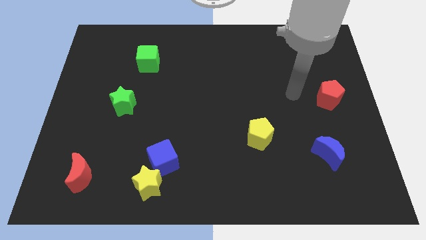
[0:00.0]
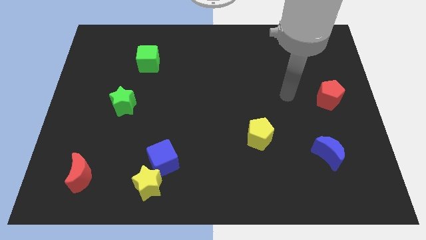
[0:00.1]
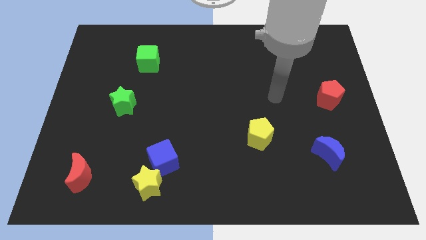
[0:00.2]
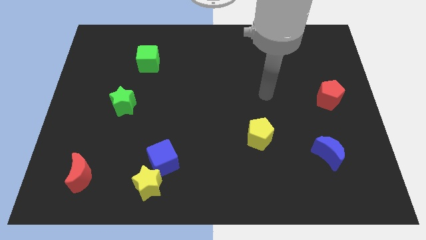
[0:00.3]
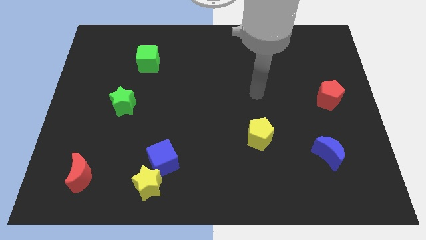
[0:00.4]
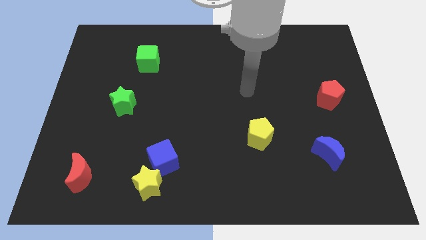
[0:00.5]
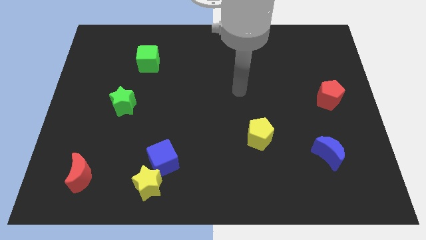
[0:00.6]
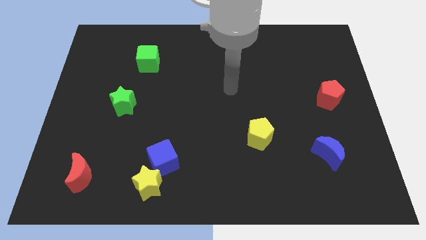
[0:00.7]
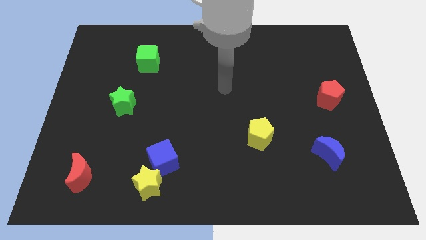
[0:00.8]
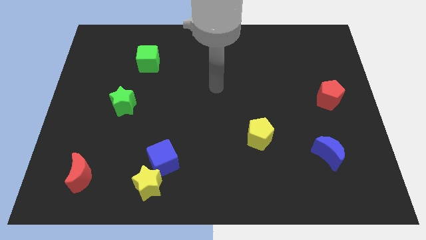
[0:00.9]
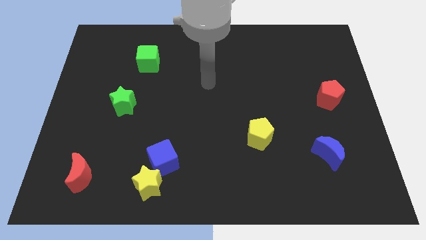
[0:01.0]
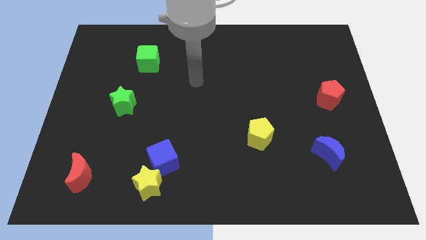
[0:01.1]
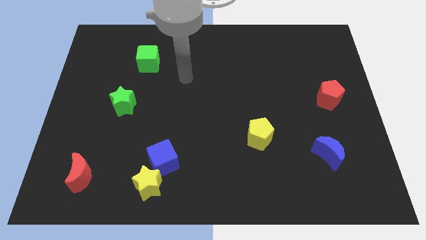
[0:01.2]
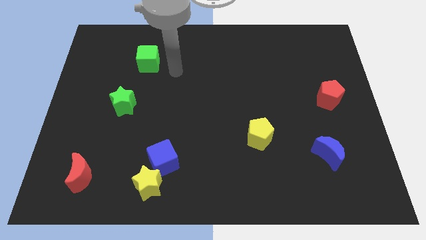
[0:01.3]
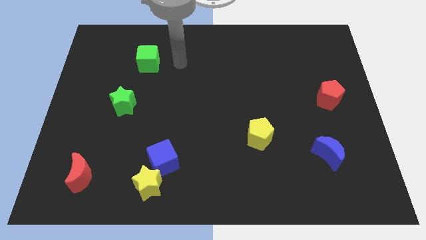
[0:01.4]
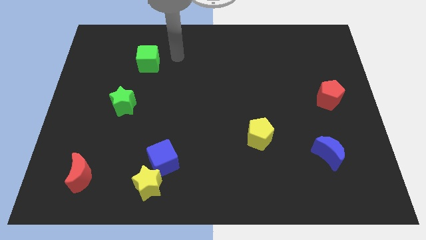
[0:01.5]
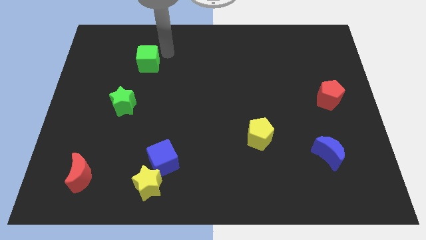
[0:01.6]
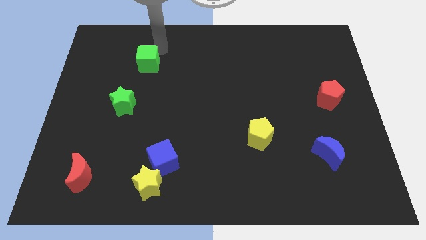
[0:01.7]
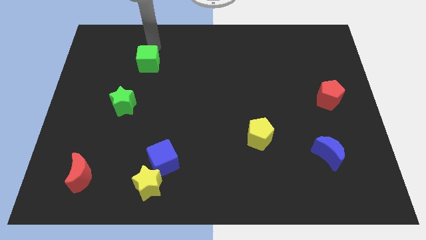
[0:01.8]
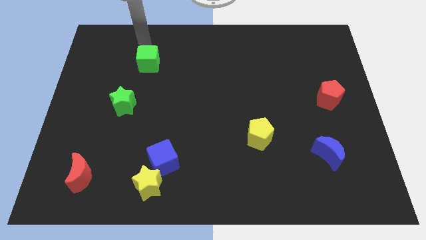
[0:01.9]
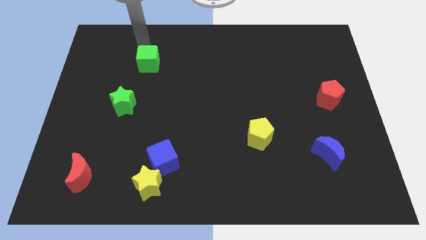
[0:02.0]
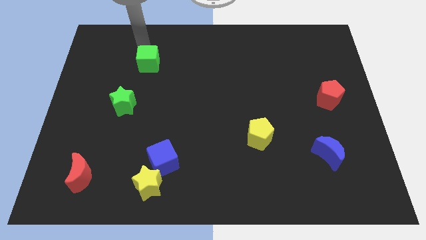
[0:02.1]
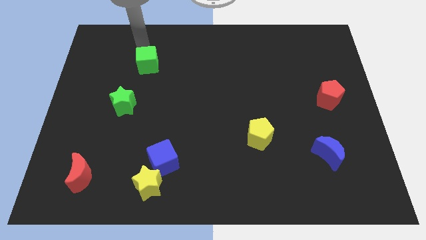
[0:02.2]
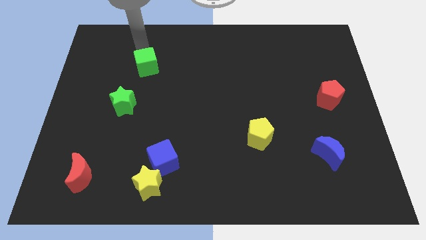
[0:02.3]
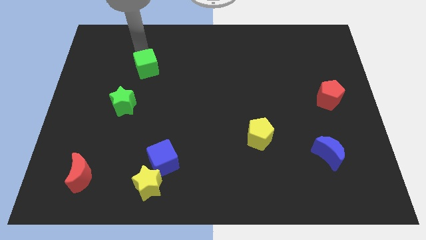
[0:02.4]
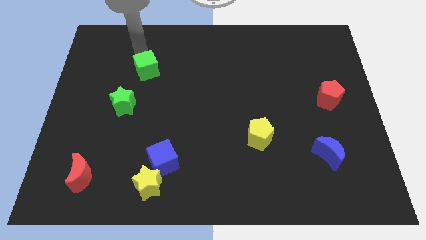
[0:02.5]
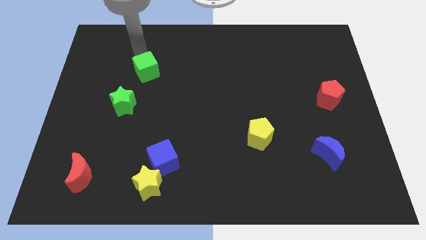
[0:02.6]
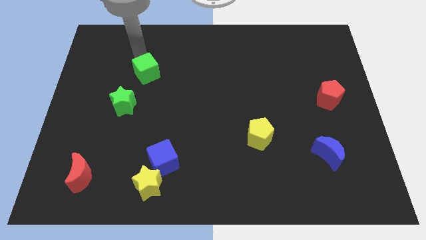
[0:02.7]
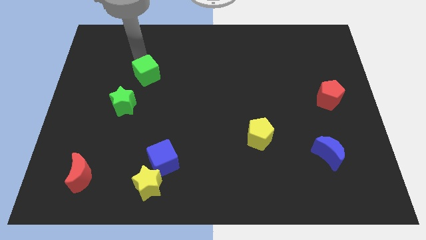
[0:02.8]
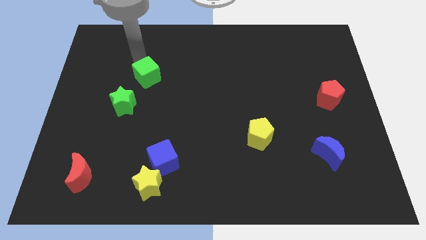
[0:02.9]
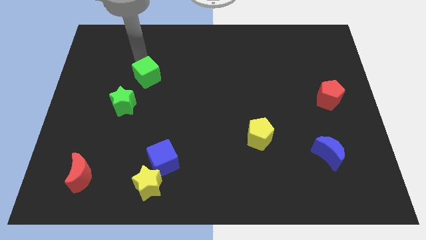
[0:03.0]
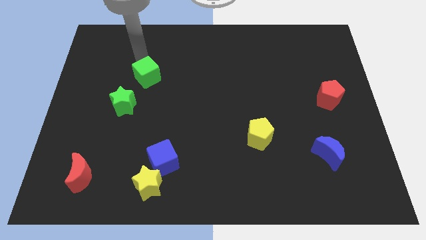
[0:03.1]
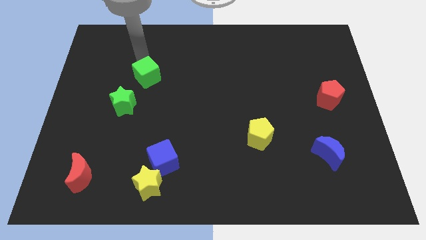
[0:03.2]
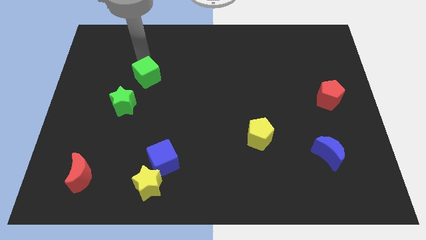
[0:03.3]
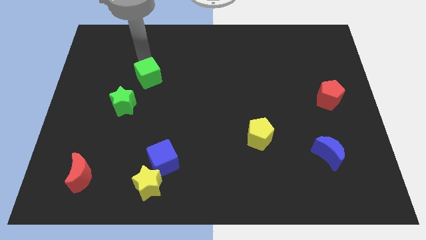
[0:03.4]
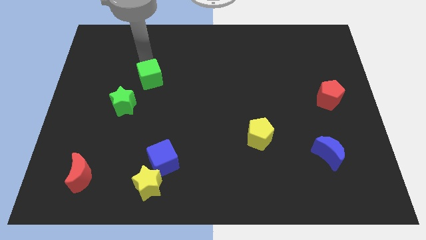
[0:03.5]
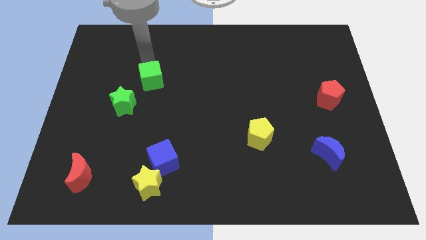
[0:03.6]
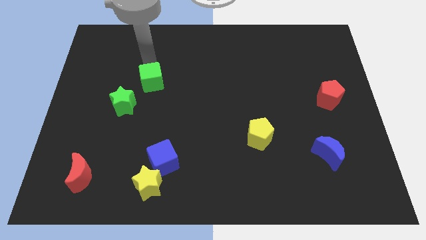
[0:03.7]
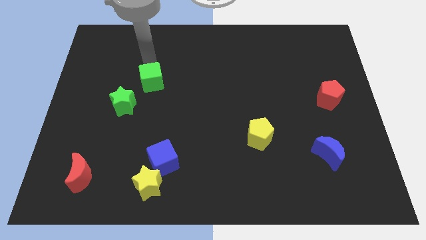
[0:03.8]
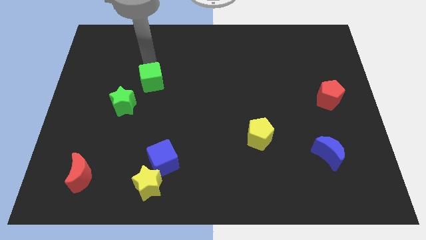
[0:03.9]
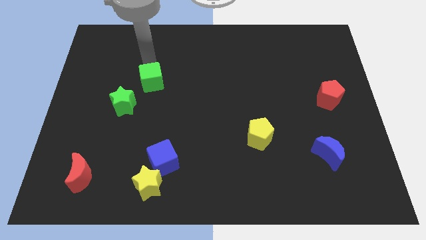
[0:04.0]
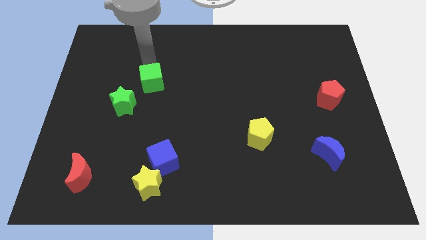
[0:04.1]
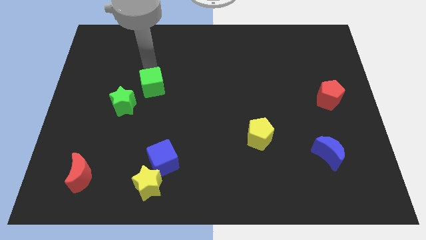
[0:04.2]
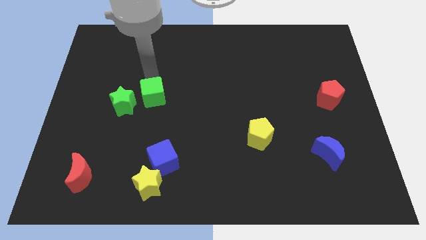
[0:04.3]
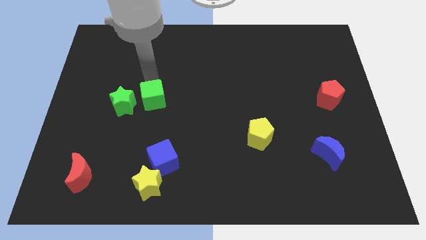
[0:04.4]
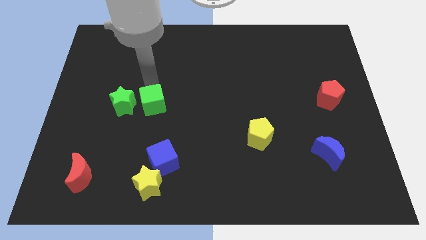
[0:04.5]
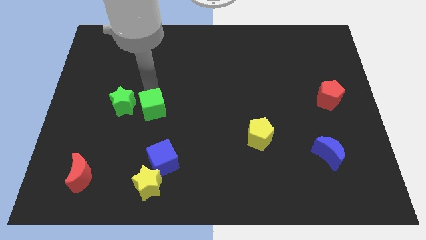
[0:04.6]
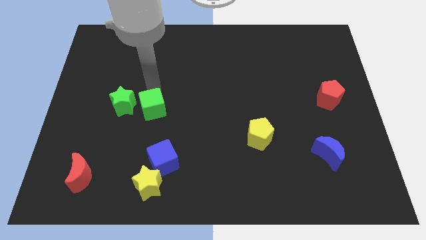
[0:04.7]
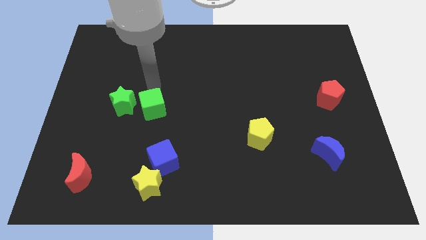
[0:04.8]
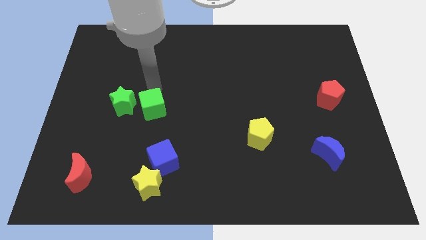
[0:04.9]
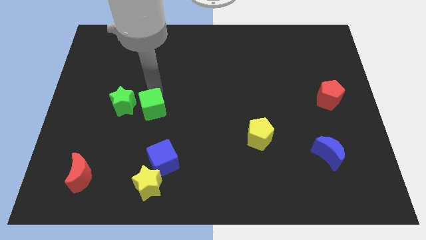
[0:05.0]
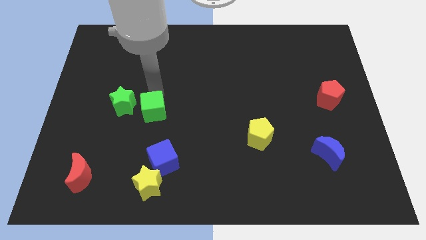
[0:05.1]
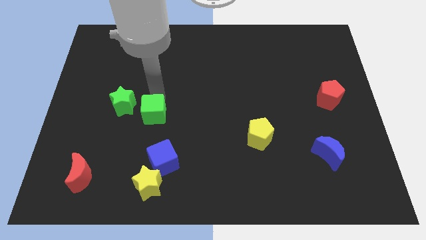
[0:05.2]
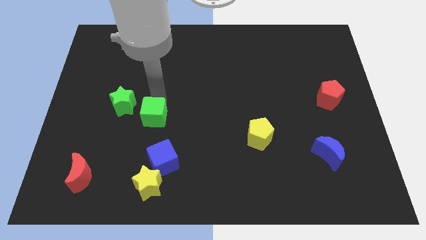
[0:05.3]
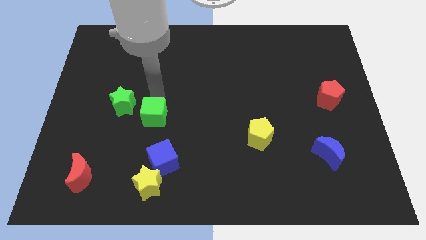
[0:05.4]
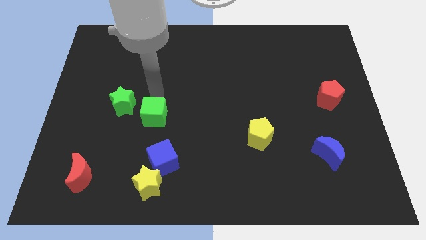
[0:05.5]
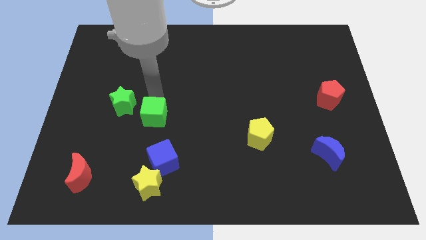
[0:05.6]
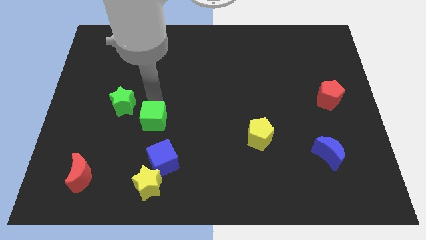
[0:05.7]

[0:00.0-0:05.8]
slide the green cube to the top of the yellow star

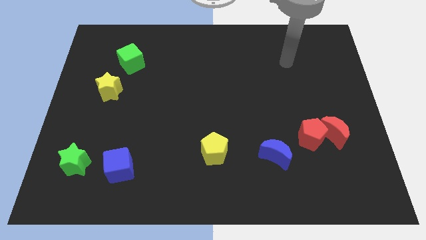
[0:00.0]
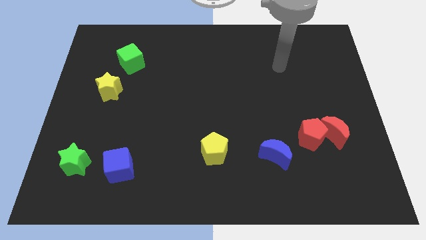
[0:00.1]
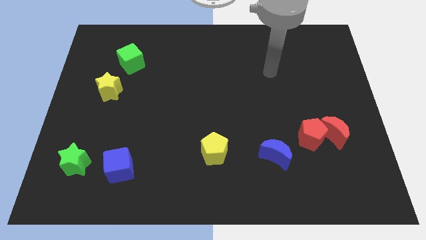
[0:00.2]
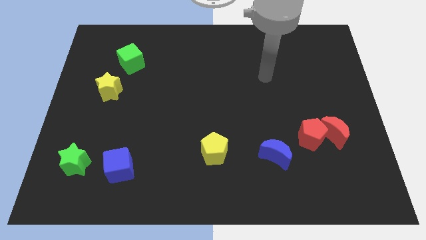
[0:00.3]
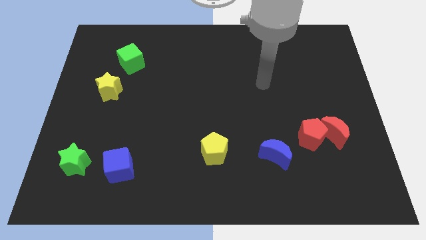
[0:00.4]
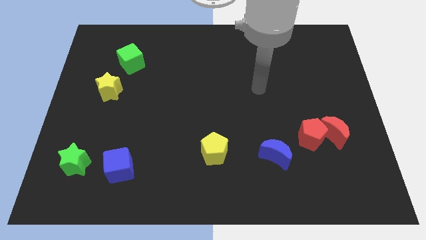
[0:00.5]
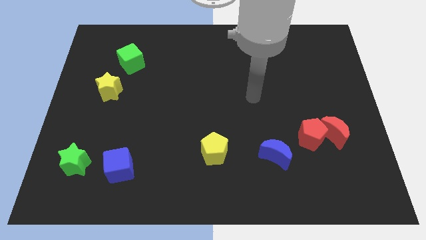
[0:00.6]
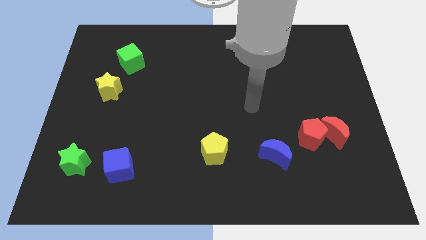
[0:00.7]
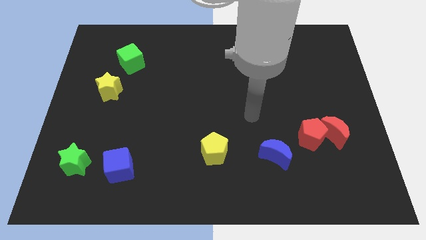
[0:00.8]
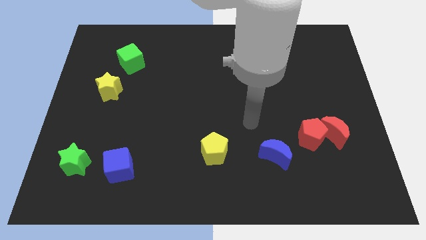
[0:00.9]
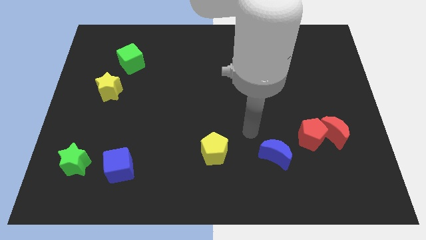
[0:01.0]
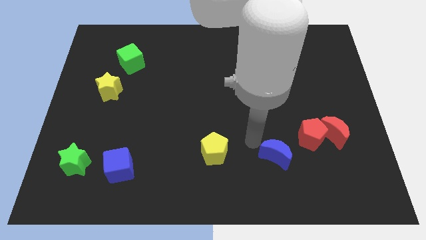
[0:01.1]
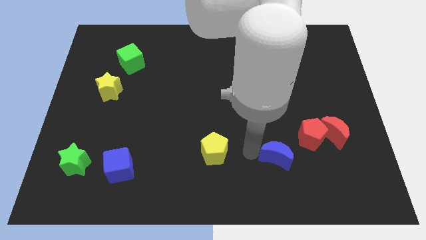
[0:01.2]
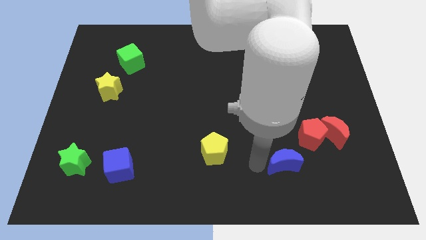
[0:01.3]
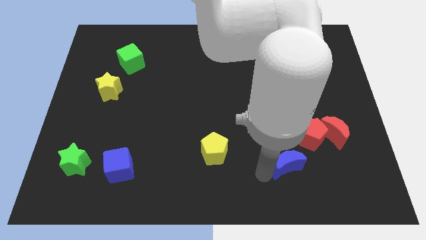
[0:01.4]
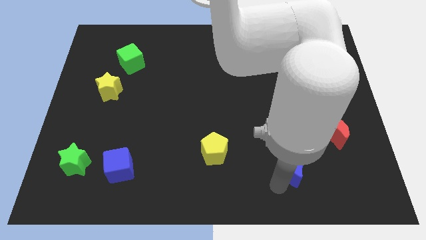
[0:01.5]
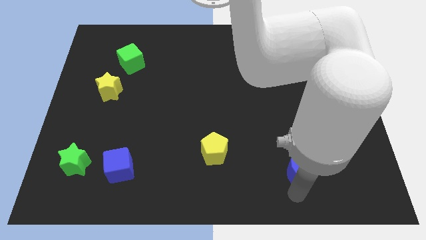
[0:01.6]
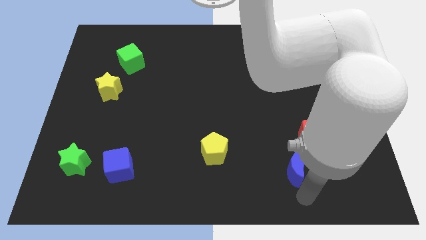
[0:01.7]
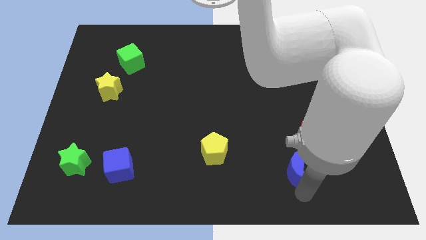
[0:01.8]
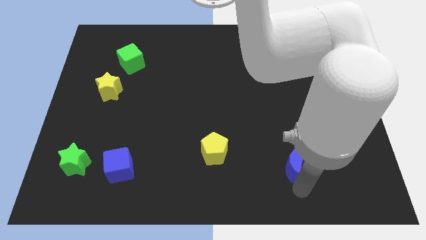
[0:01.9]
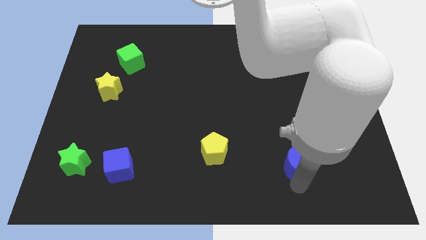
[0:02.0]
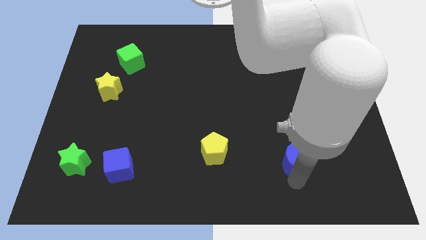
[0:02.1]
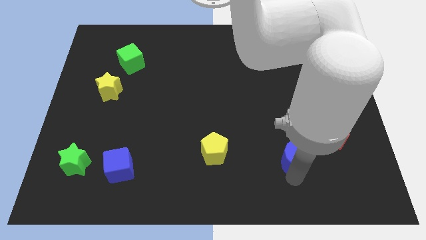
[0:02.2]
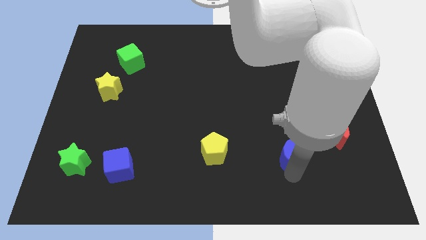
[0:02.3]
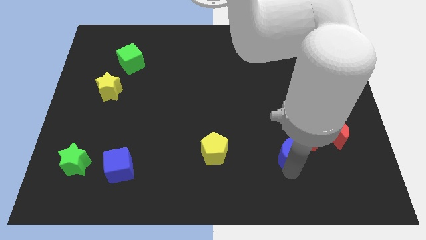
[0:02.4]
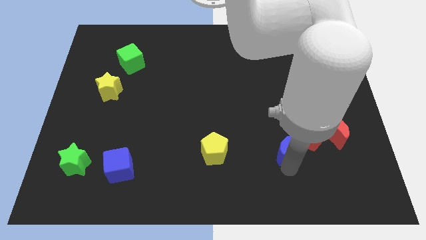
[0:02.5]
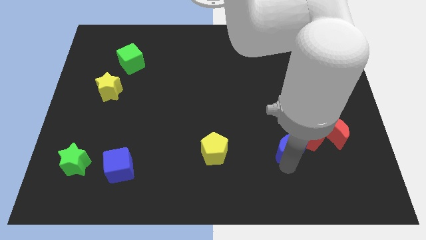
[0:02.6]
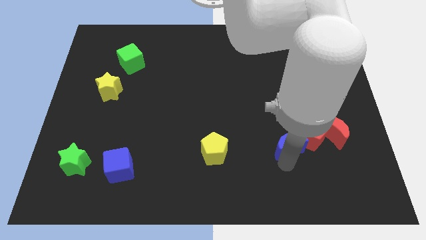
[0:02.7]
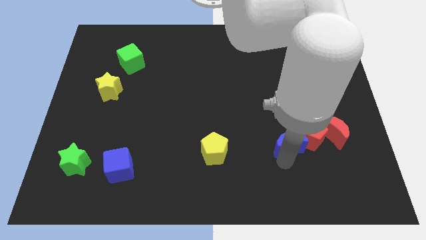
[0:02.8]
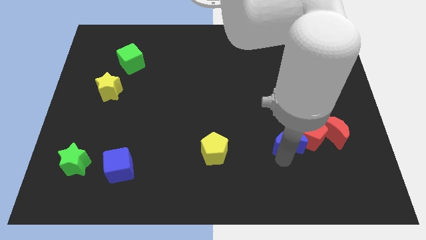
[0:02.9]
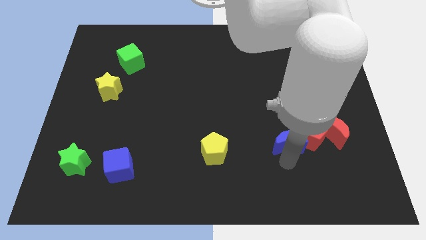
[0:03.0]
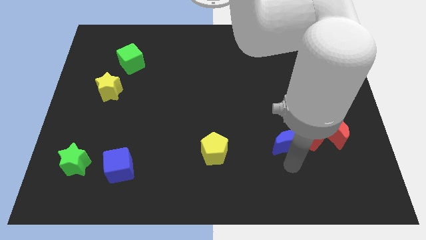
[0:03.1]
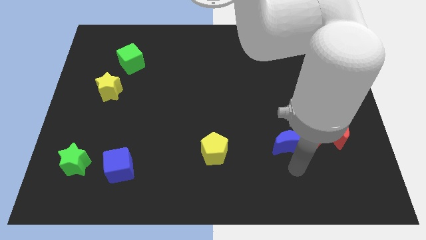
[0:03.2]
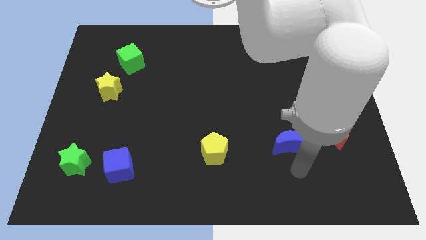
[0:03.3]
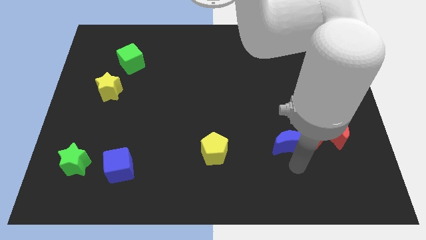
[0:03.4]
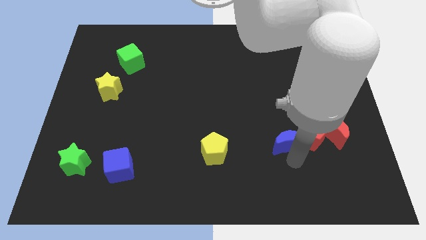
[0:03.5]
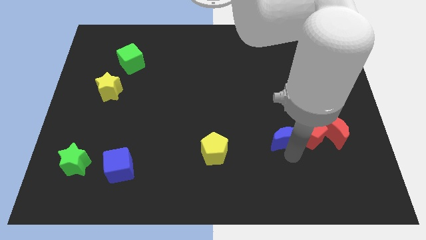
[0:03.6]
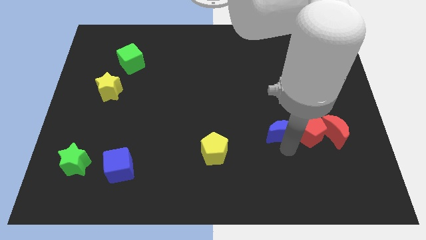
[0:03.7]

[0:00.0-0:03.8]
move the blue moon to the top left side of the red pentagon
